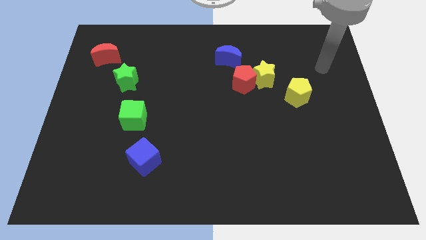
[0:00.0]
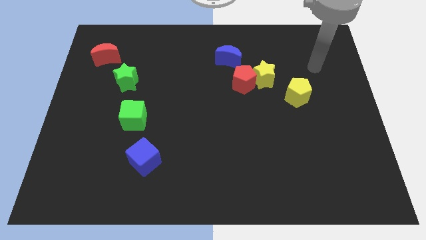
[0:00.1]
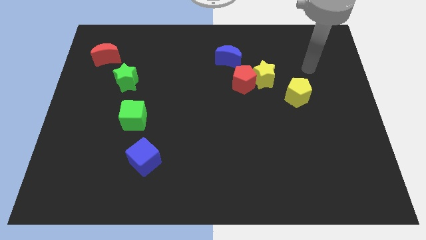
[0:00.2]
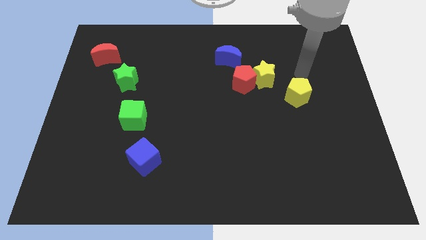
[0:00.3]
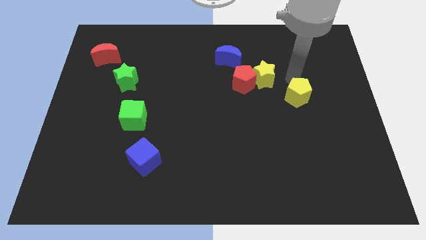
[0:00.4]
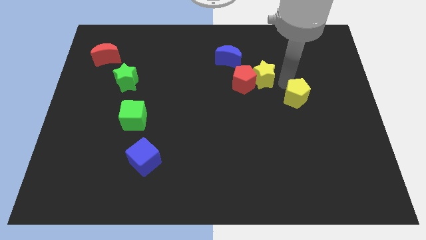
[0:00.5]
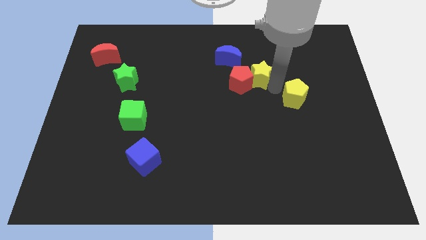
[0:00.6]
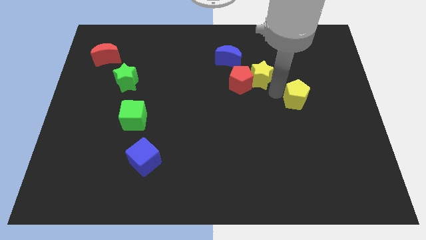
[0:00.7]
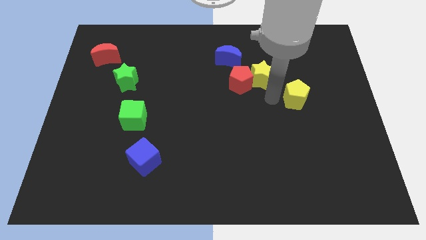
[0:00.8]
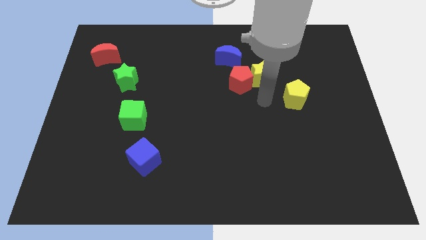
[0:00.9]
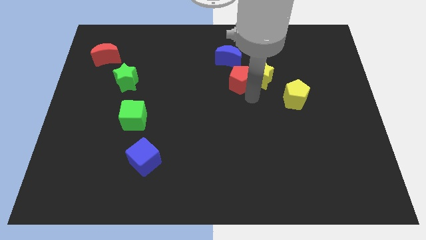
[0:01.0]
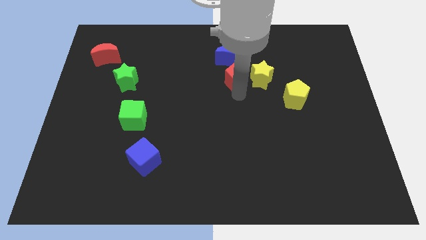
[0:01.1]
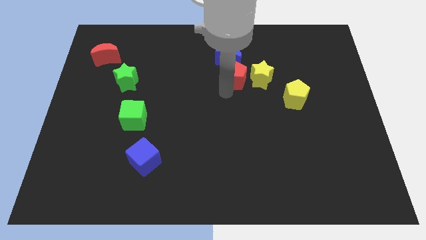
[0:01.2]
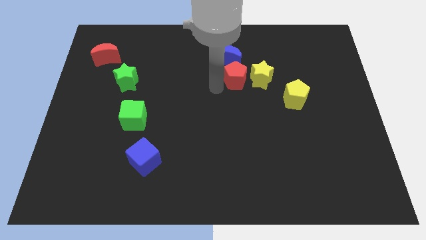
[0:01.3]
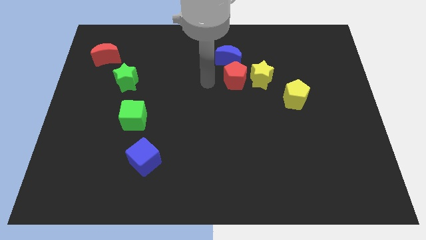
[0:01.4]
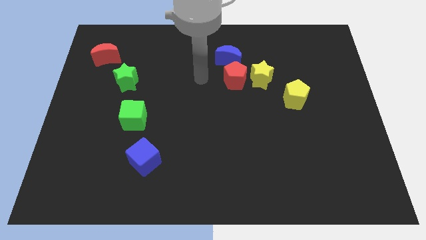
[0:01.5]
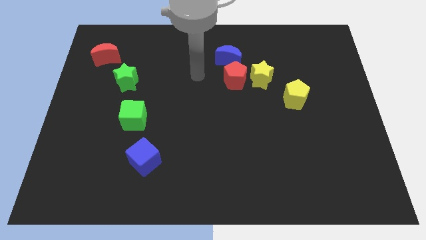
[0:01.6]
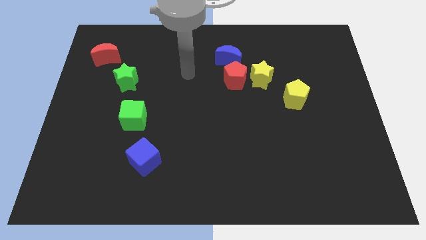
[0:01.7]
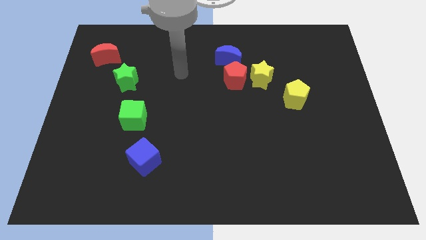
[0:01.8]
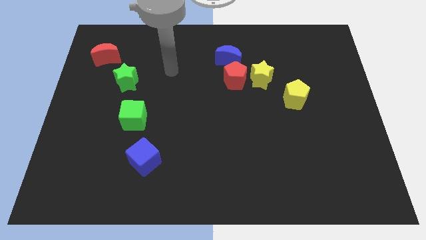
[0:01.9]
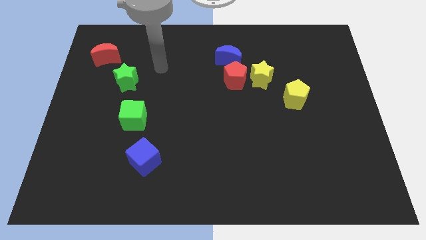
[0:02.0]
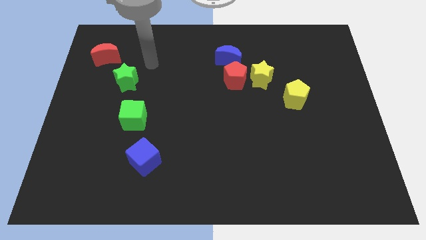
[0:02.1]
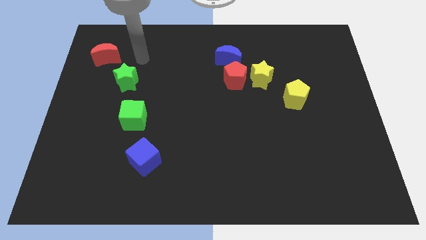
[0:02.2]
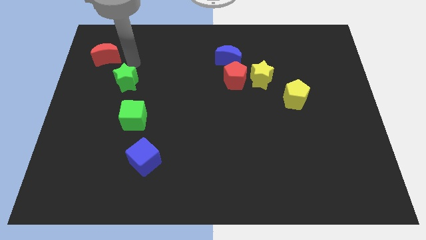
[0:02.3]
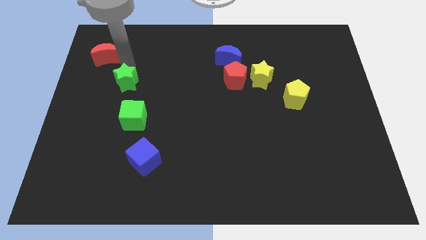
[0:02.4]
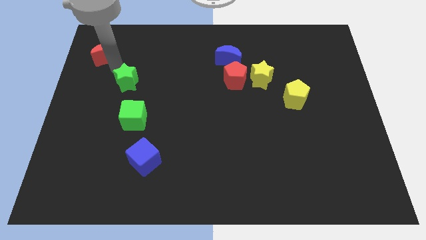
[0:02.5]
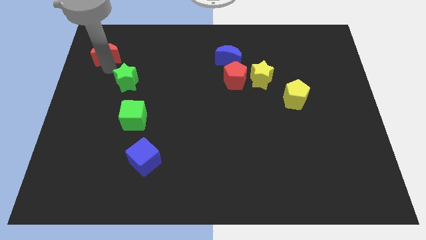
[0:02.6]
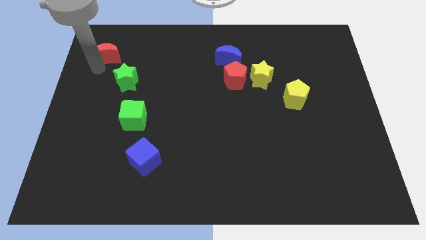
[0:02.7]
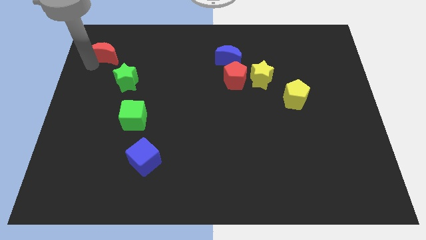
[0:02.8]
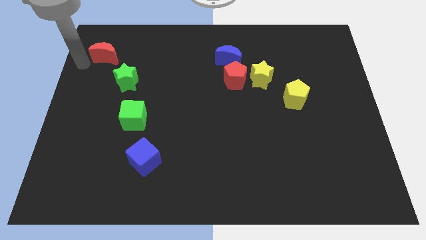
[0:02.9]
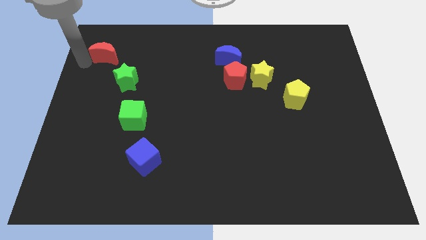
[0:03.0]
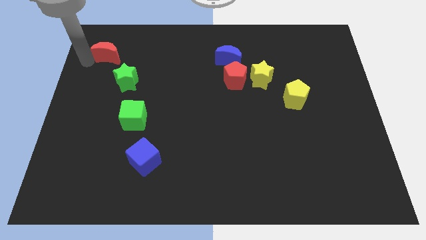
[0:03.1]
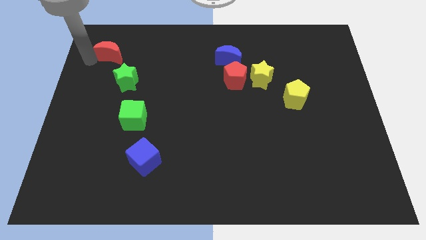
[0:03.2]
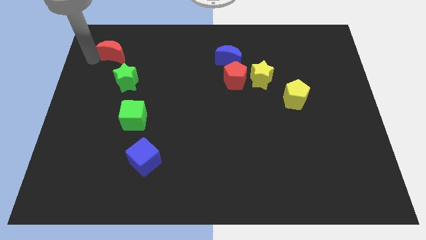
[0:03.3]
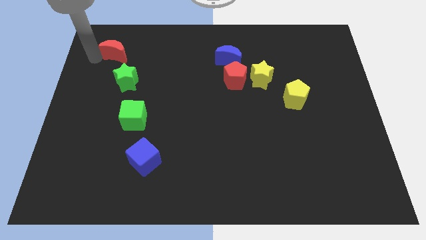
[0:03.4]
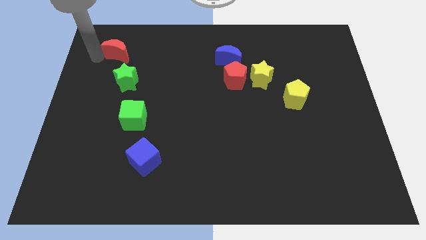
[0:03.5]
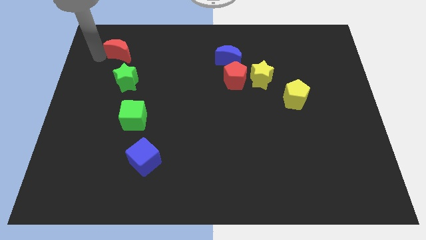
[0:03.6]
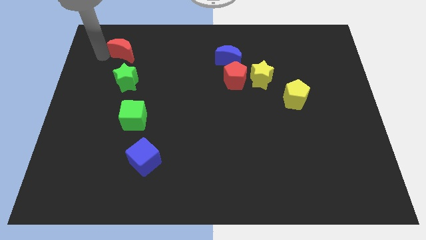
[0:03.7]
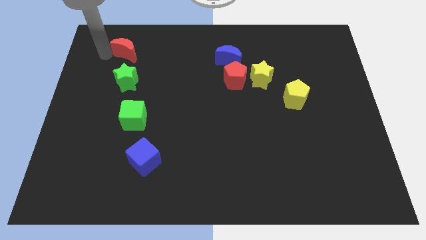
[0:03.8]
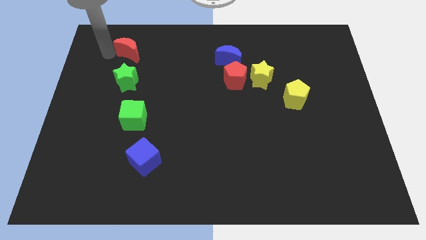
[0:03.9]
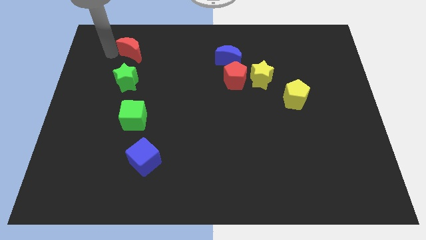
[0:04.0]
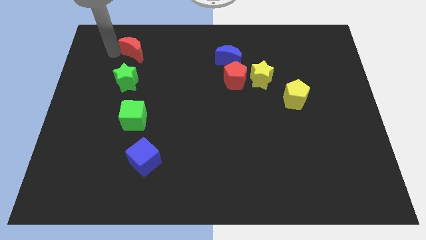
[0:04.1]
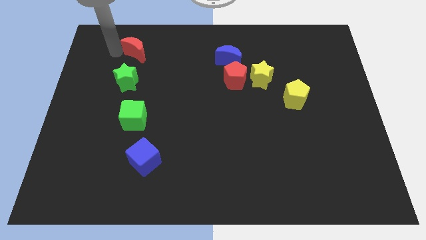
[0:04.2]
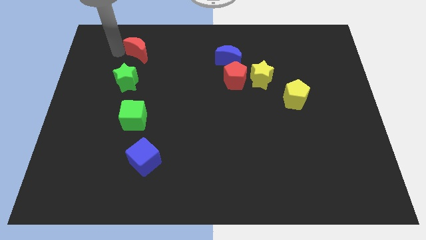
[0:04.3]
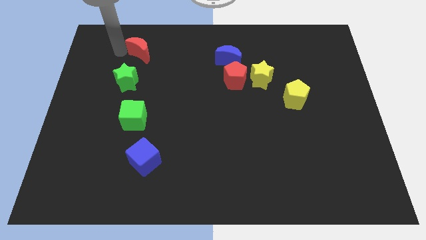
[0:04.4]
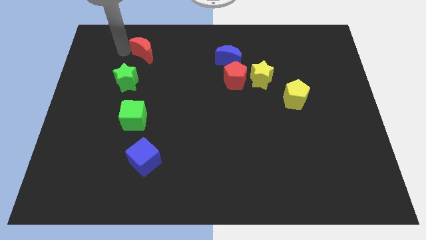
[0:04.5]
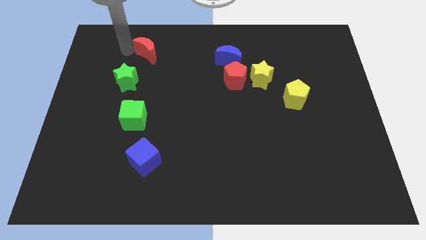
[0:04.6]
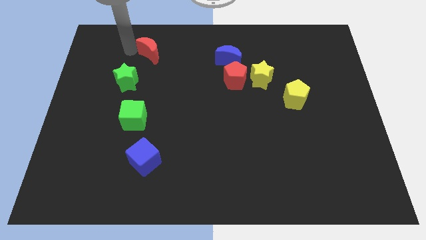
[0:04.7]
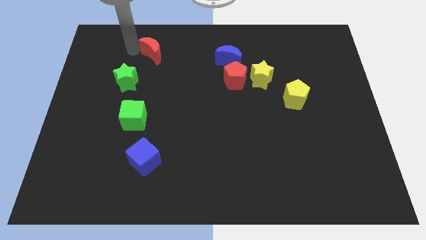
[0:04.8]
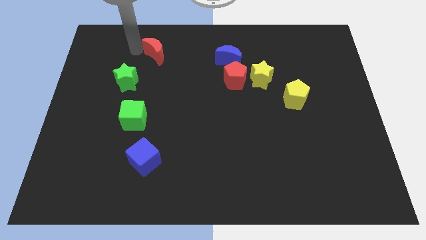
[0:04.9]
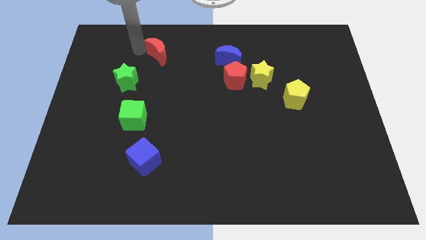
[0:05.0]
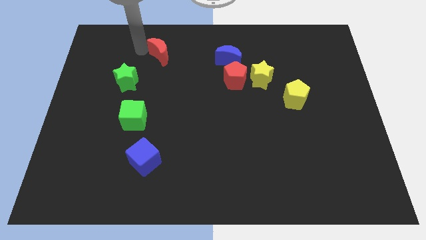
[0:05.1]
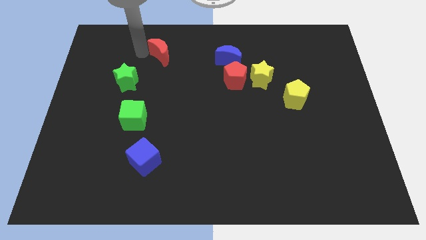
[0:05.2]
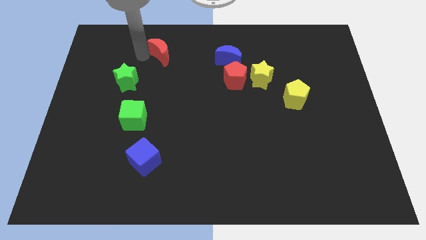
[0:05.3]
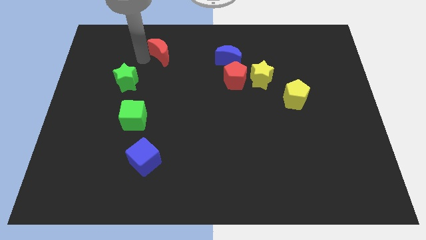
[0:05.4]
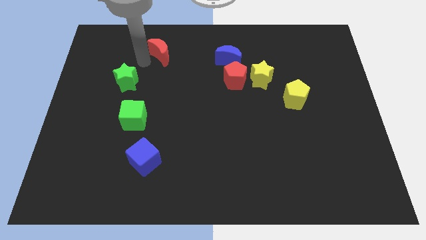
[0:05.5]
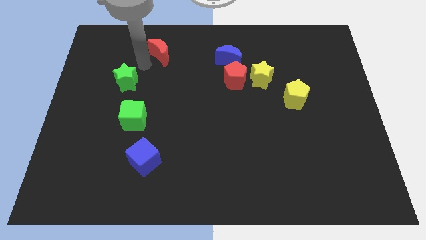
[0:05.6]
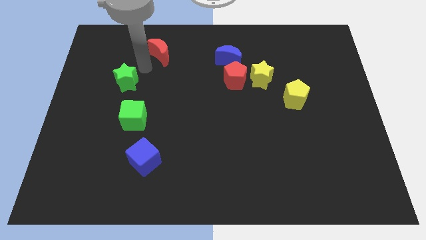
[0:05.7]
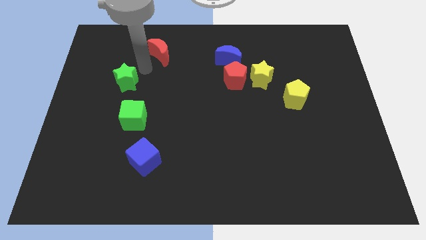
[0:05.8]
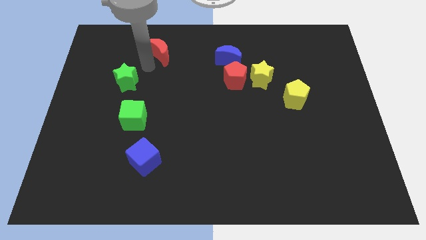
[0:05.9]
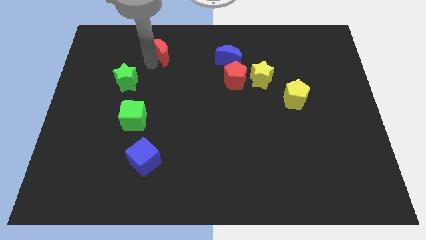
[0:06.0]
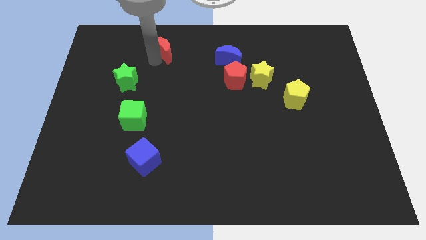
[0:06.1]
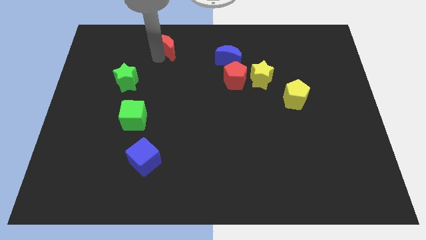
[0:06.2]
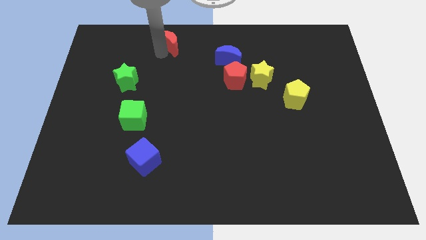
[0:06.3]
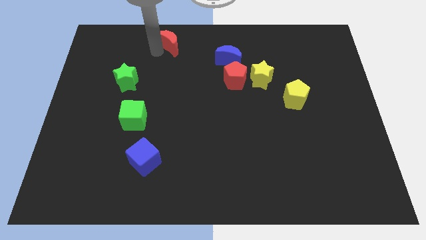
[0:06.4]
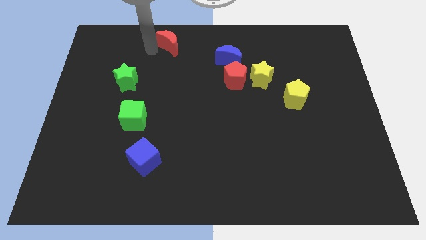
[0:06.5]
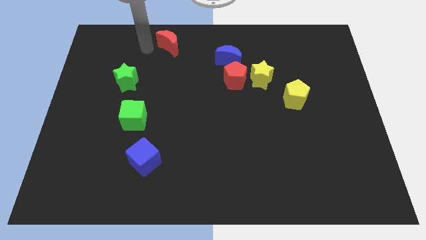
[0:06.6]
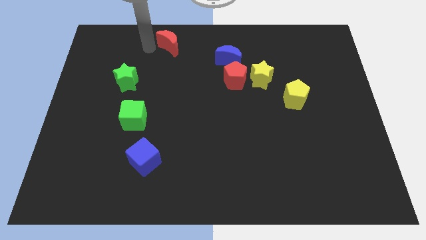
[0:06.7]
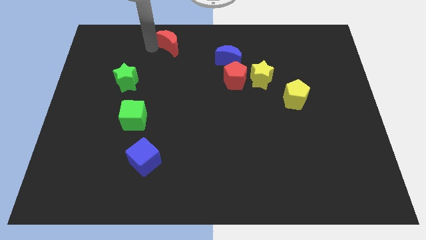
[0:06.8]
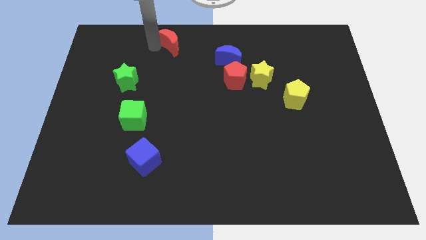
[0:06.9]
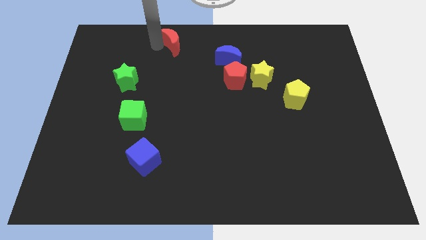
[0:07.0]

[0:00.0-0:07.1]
move the red moon to the towards your base
